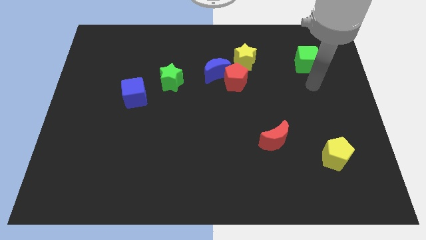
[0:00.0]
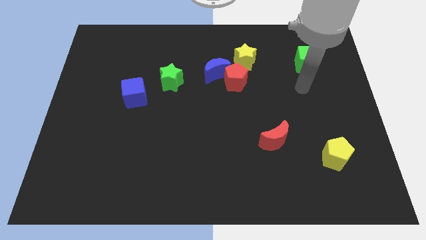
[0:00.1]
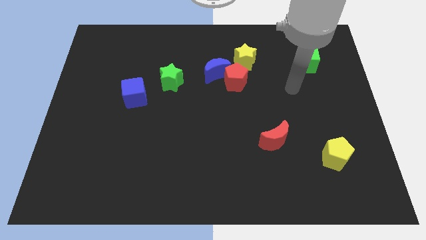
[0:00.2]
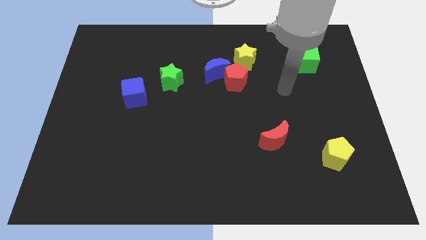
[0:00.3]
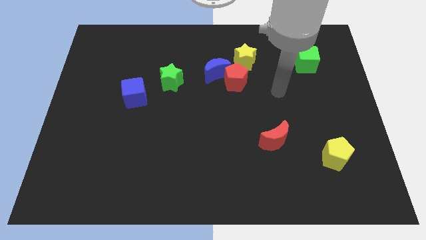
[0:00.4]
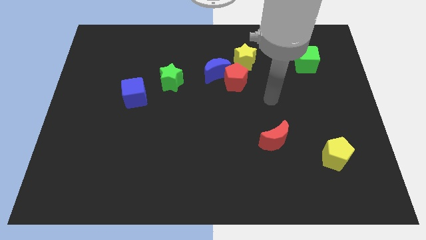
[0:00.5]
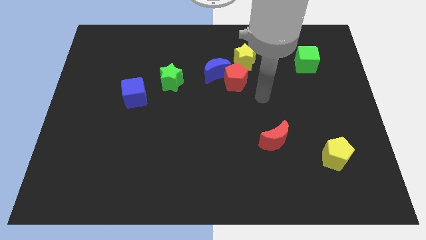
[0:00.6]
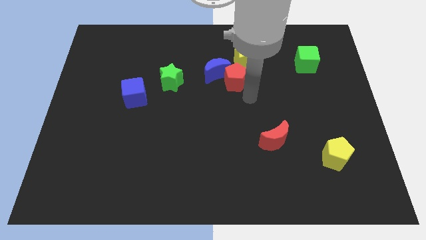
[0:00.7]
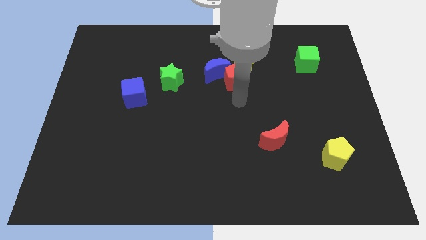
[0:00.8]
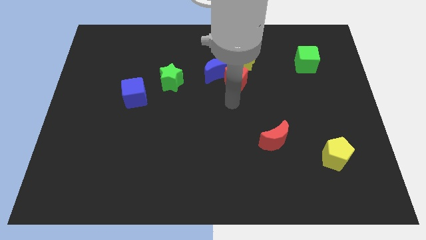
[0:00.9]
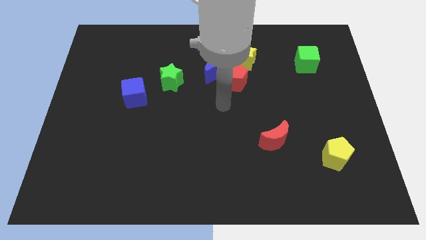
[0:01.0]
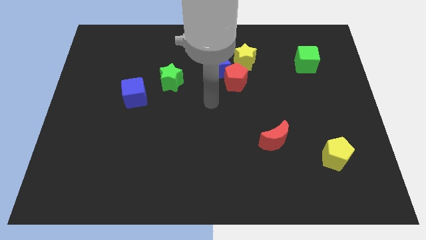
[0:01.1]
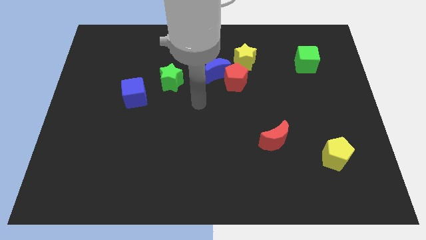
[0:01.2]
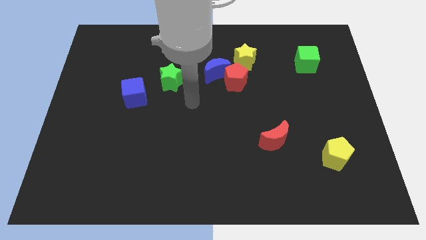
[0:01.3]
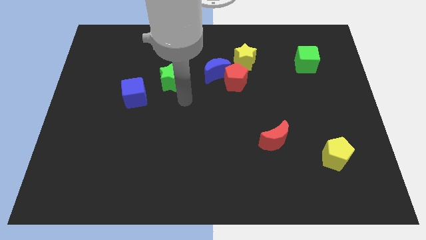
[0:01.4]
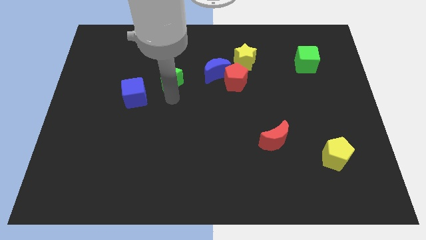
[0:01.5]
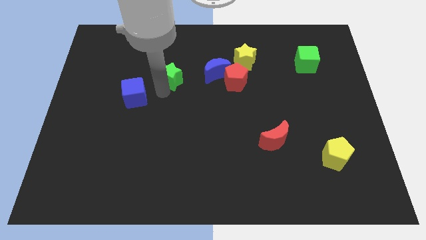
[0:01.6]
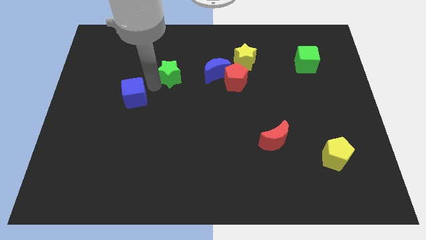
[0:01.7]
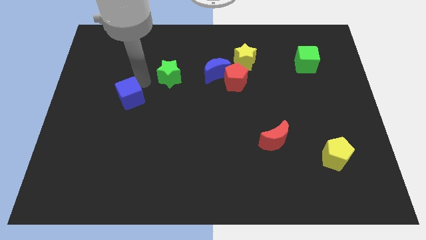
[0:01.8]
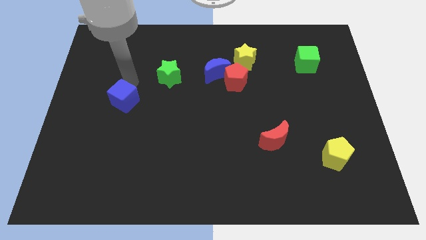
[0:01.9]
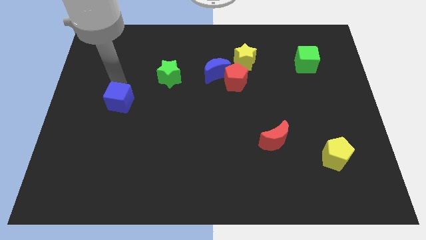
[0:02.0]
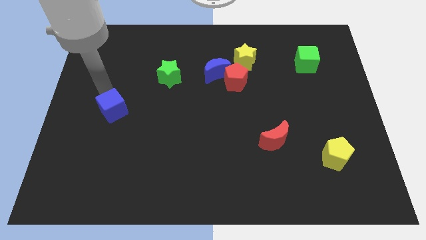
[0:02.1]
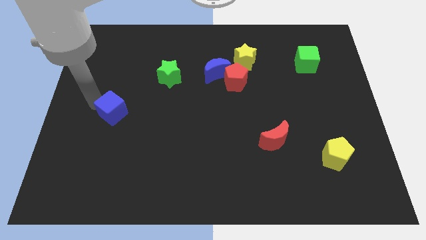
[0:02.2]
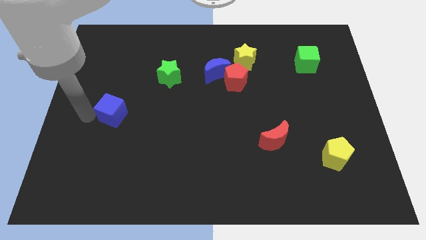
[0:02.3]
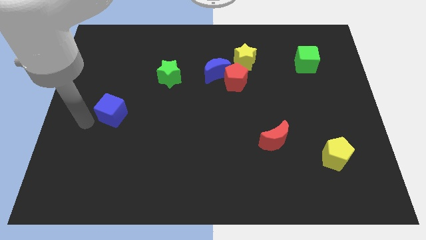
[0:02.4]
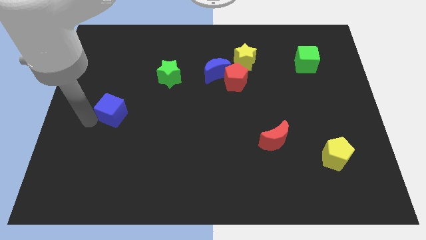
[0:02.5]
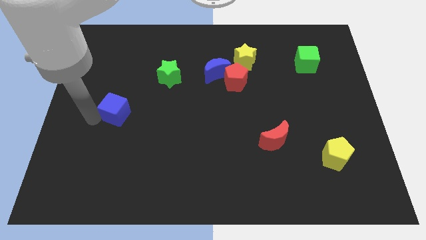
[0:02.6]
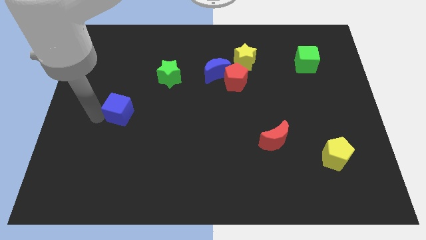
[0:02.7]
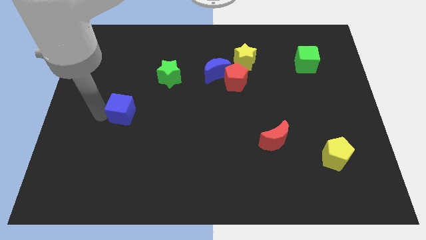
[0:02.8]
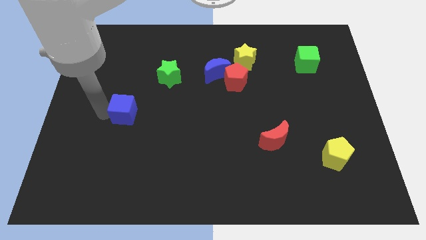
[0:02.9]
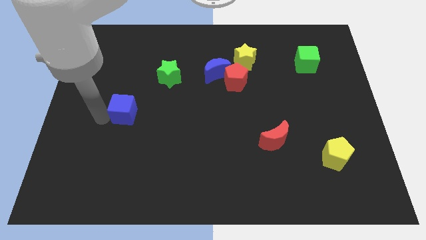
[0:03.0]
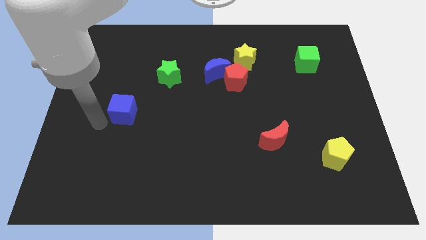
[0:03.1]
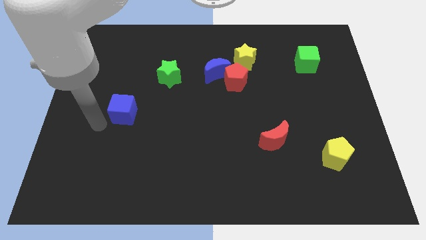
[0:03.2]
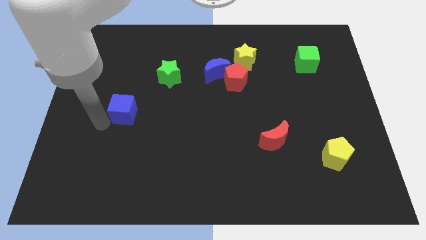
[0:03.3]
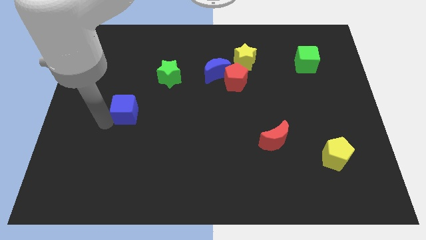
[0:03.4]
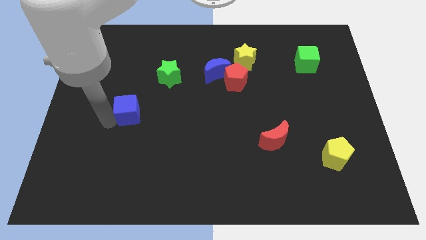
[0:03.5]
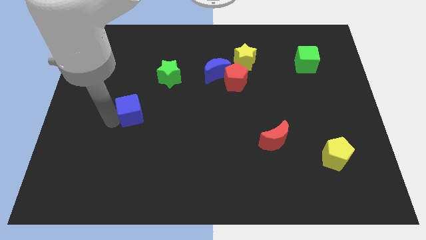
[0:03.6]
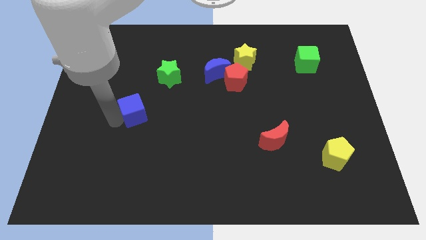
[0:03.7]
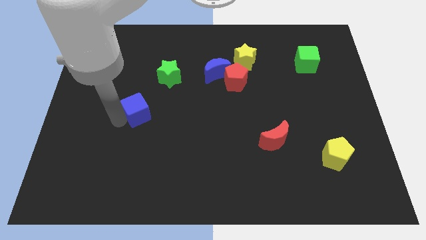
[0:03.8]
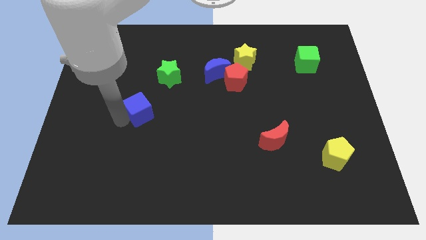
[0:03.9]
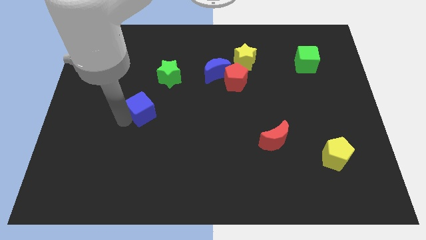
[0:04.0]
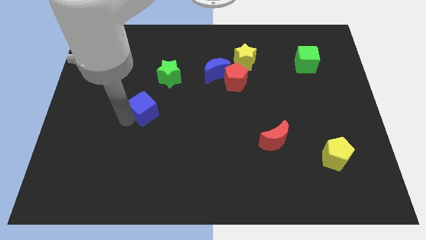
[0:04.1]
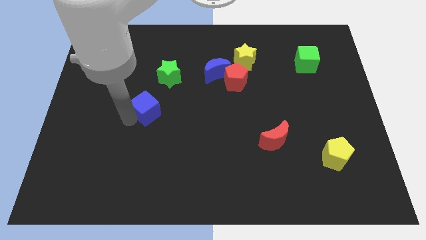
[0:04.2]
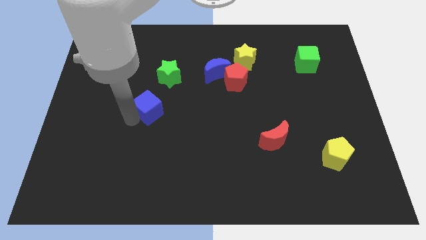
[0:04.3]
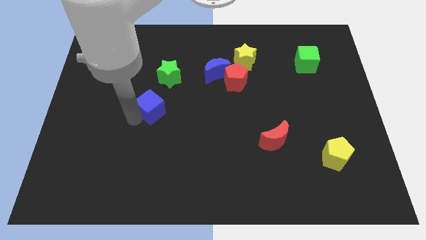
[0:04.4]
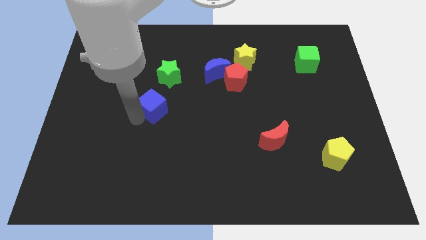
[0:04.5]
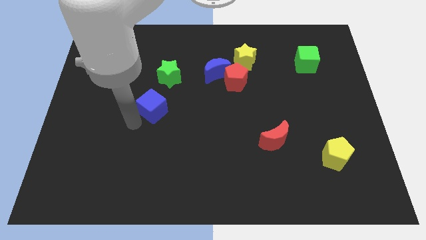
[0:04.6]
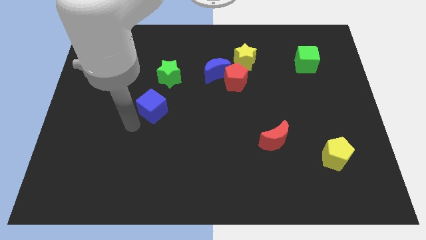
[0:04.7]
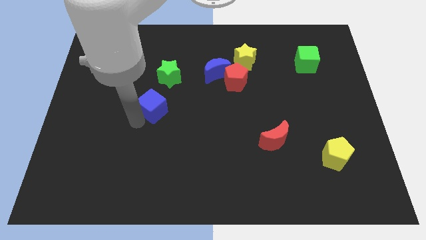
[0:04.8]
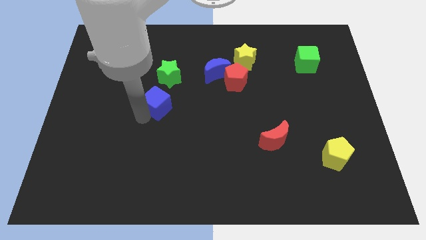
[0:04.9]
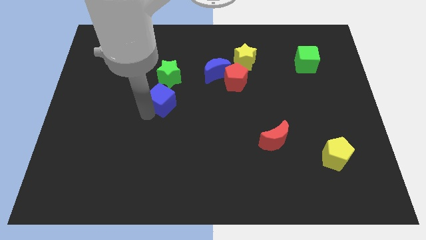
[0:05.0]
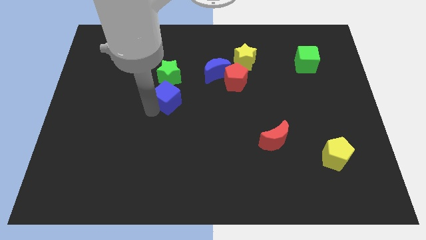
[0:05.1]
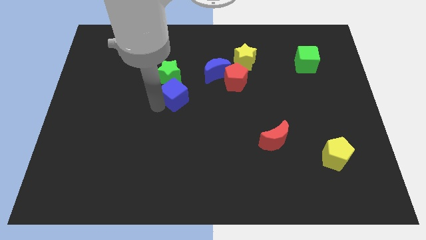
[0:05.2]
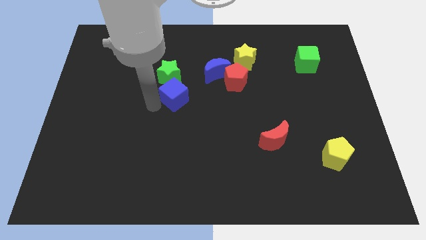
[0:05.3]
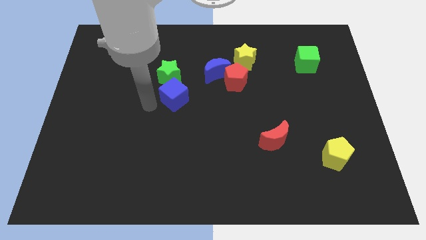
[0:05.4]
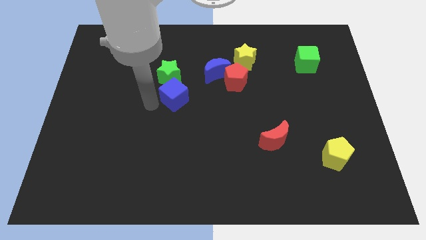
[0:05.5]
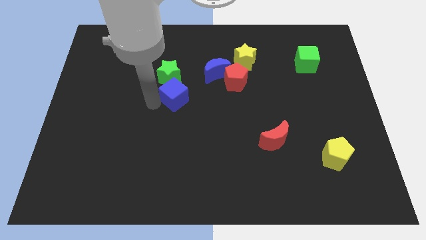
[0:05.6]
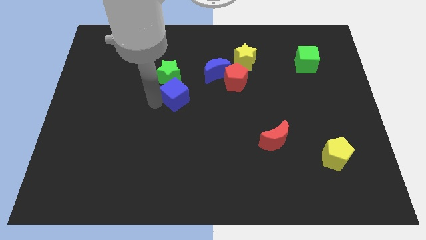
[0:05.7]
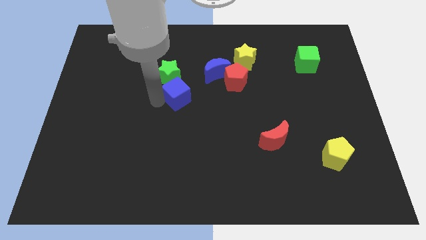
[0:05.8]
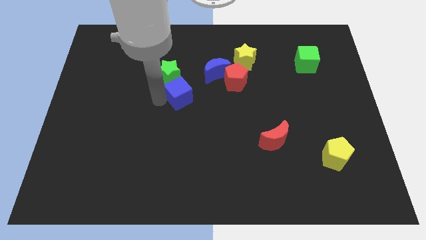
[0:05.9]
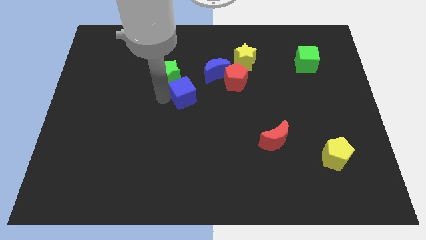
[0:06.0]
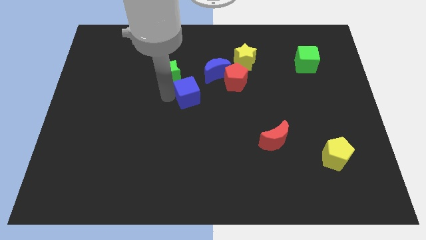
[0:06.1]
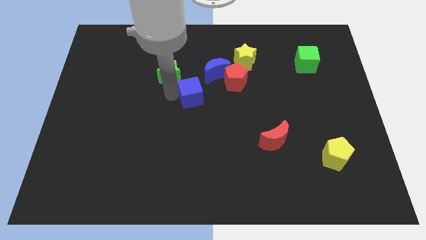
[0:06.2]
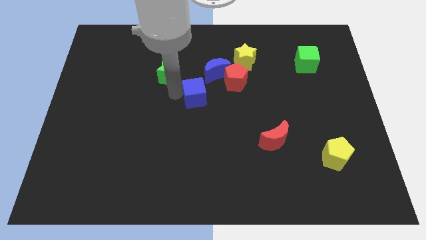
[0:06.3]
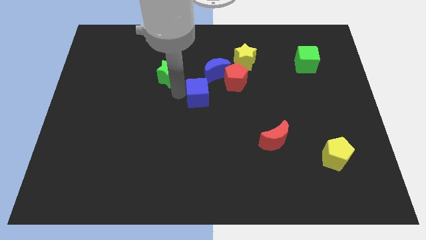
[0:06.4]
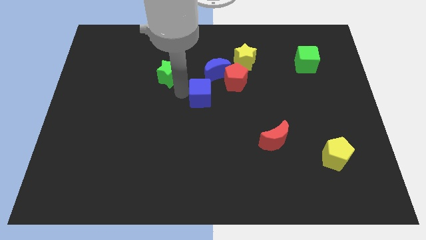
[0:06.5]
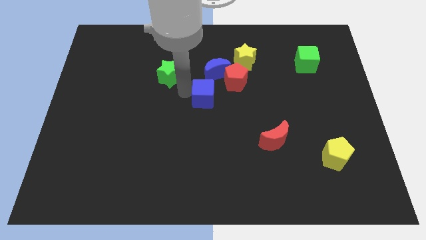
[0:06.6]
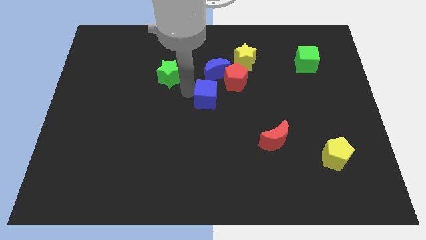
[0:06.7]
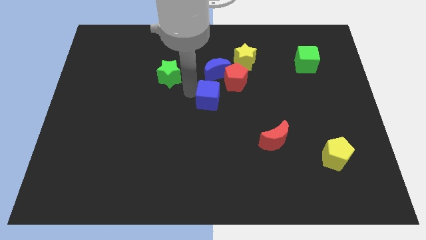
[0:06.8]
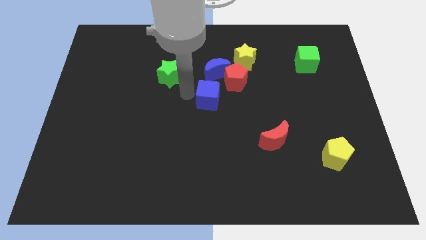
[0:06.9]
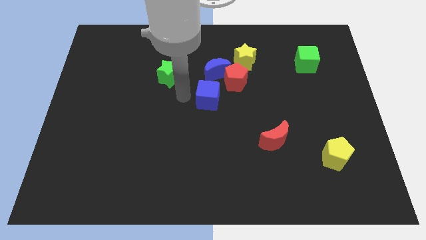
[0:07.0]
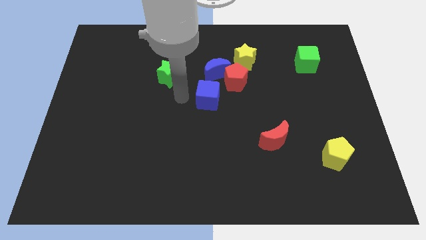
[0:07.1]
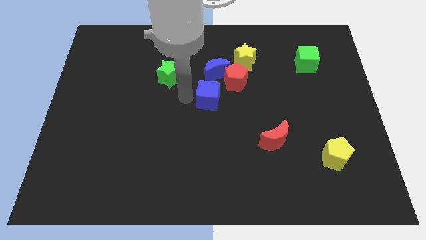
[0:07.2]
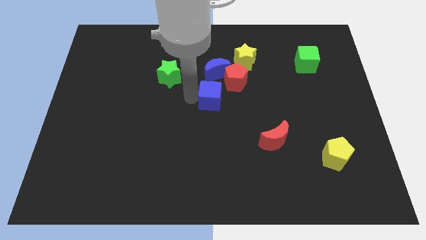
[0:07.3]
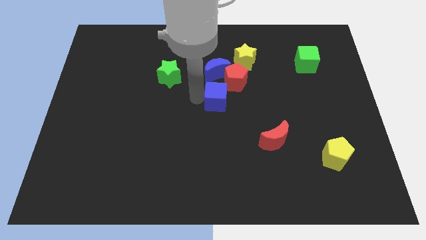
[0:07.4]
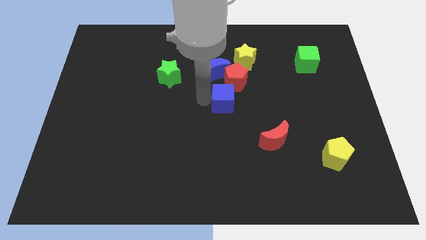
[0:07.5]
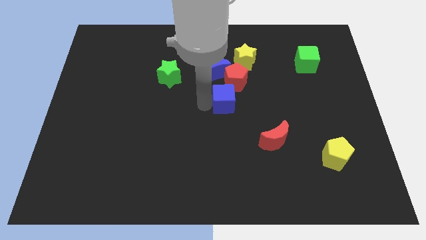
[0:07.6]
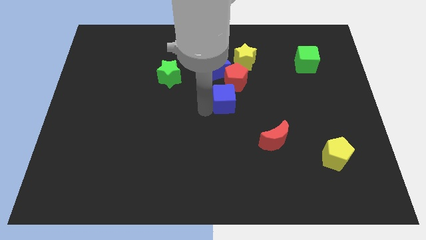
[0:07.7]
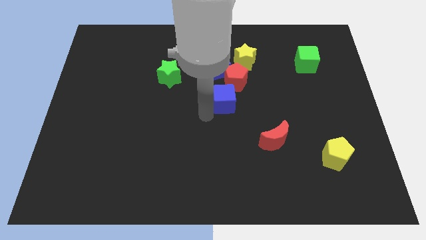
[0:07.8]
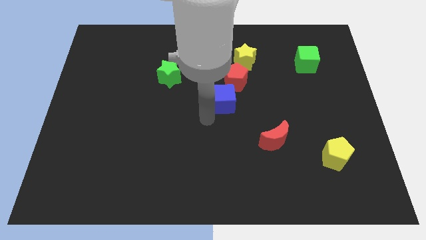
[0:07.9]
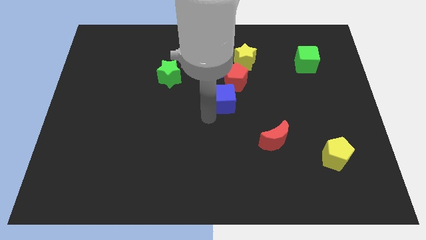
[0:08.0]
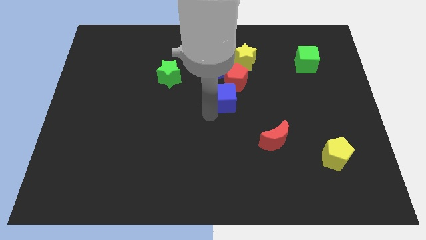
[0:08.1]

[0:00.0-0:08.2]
slide the blue cube to the bottom right side of the blue moon

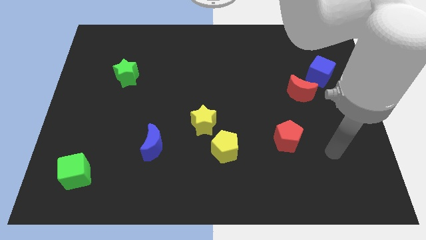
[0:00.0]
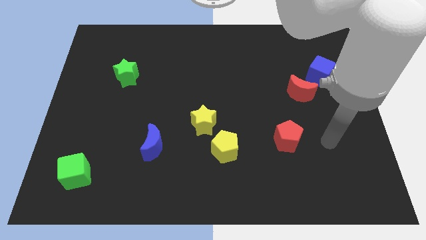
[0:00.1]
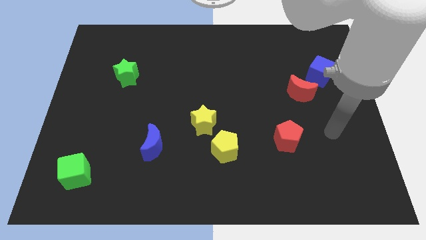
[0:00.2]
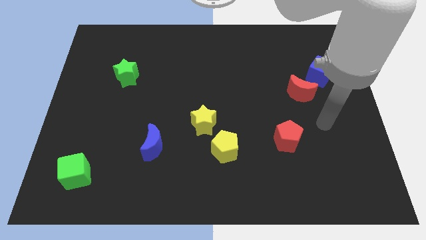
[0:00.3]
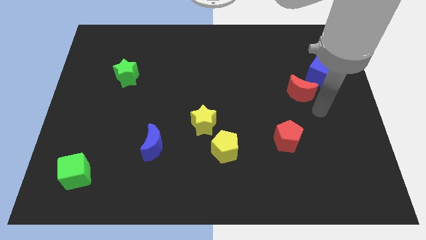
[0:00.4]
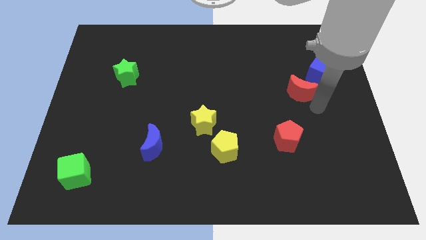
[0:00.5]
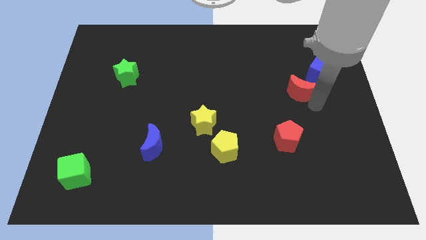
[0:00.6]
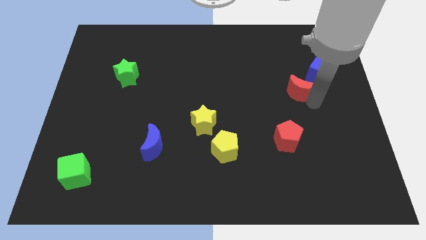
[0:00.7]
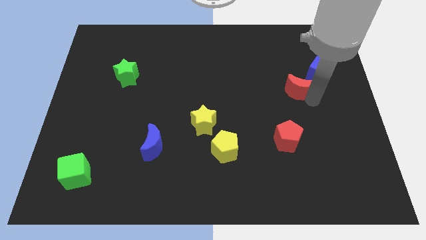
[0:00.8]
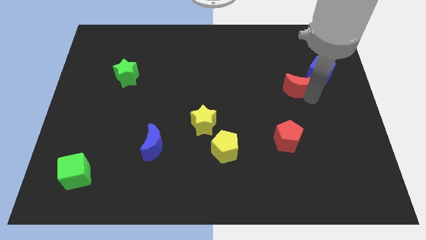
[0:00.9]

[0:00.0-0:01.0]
put the red moon to the left side of the blue cube
